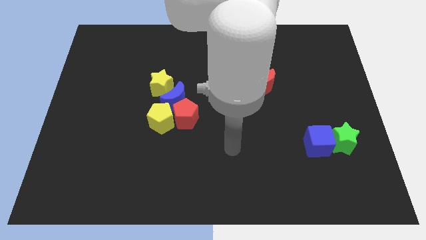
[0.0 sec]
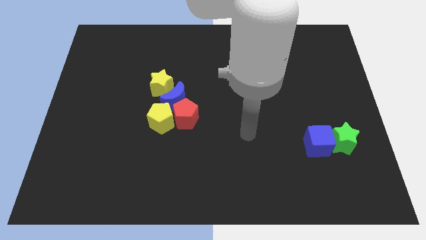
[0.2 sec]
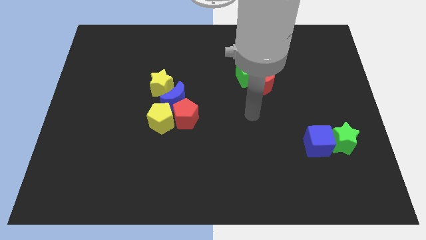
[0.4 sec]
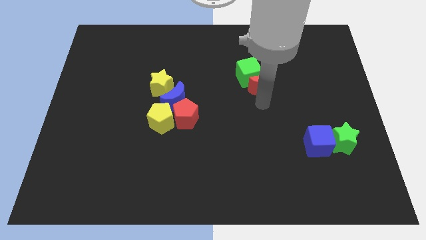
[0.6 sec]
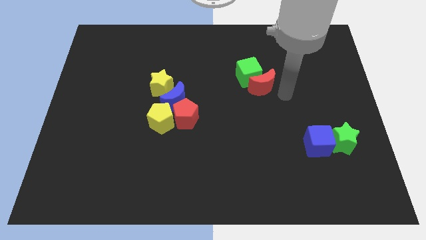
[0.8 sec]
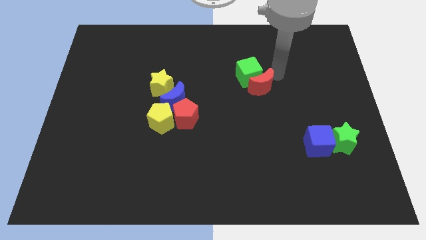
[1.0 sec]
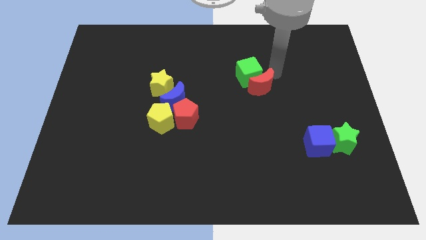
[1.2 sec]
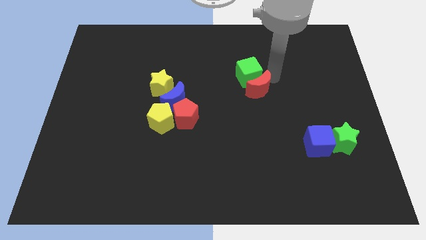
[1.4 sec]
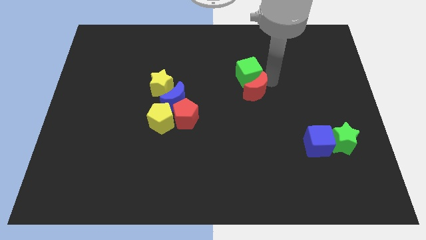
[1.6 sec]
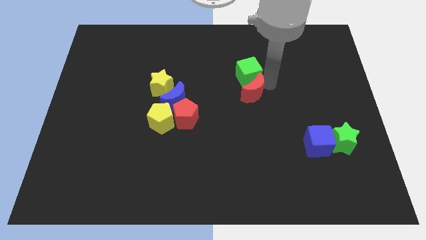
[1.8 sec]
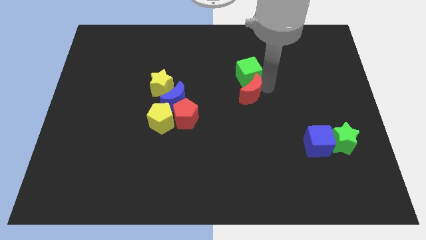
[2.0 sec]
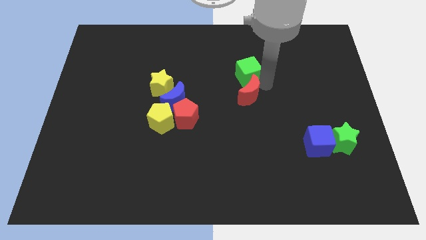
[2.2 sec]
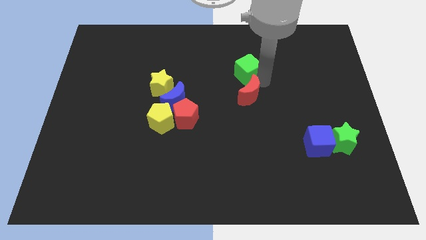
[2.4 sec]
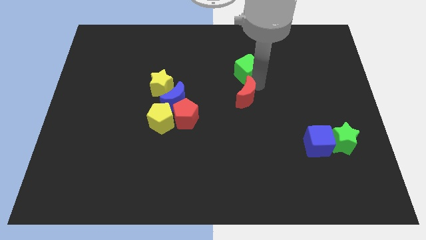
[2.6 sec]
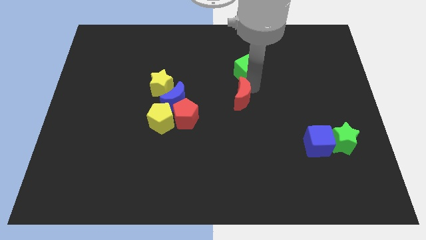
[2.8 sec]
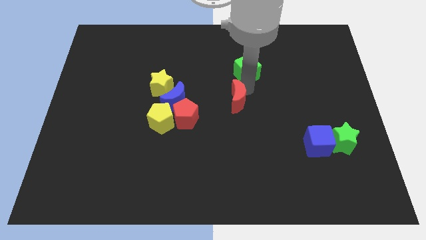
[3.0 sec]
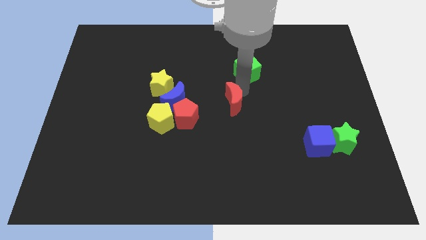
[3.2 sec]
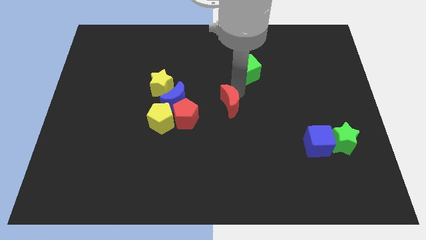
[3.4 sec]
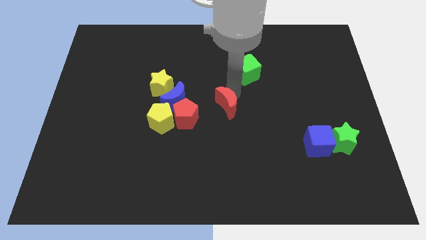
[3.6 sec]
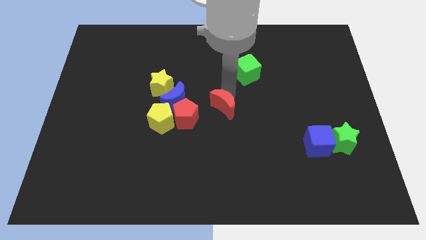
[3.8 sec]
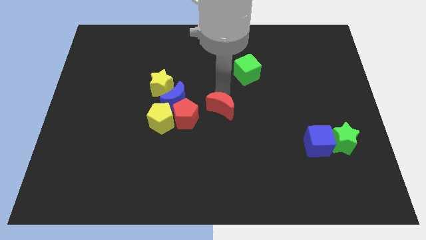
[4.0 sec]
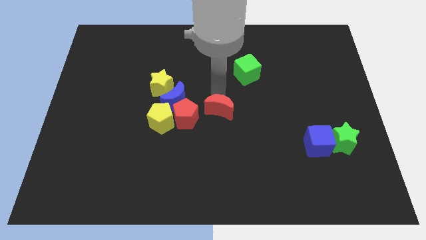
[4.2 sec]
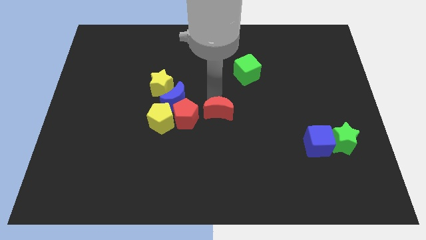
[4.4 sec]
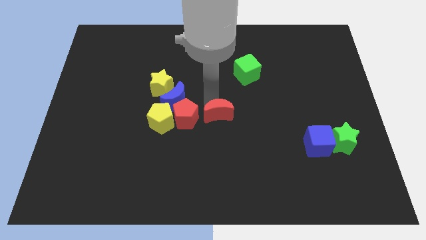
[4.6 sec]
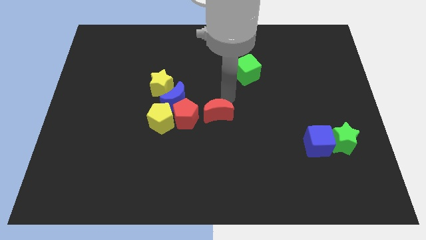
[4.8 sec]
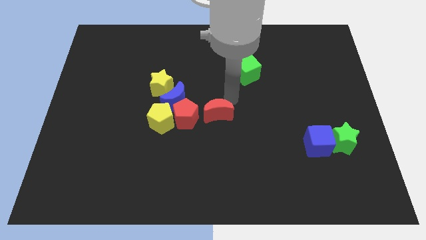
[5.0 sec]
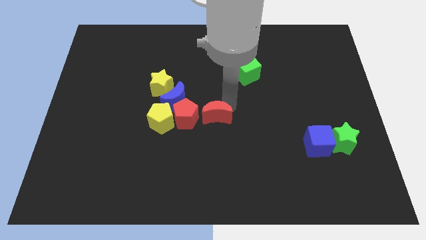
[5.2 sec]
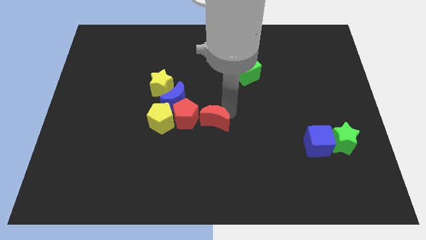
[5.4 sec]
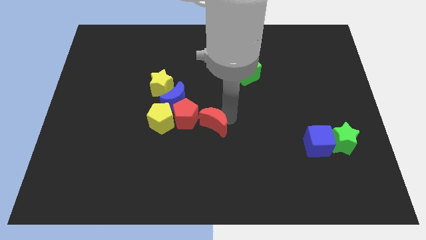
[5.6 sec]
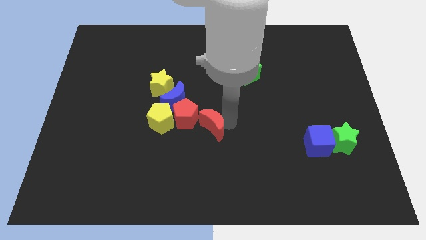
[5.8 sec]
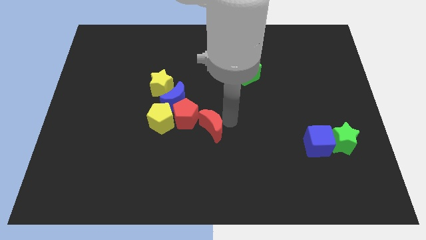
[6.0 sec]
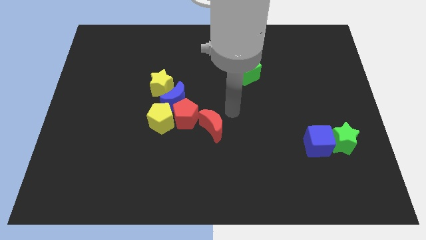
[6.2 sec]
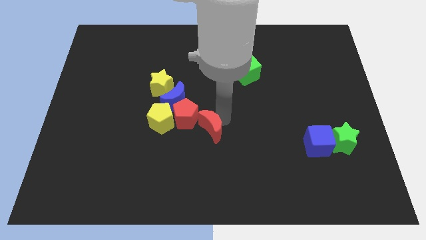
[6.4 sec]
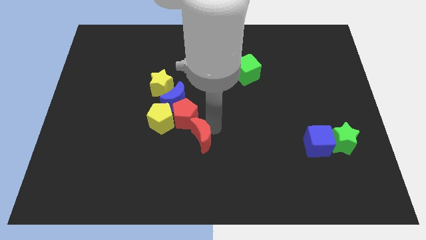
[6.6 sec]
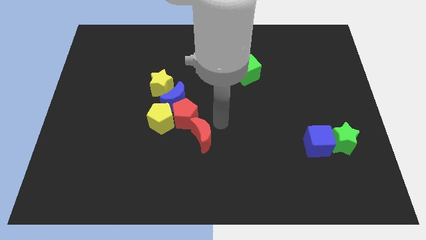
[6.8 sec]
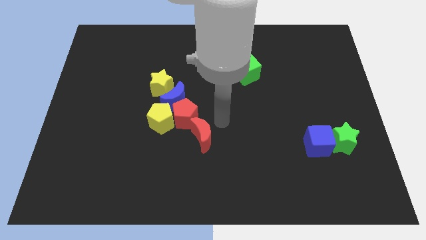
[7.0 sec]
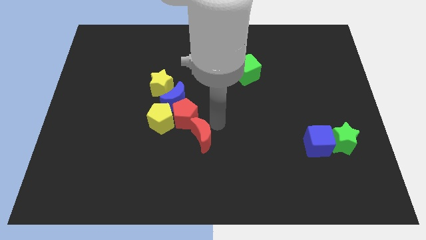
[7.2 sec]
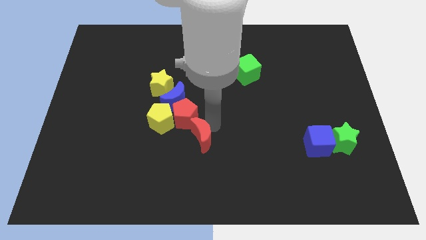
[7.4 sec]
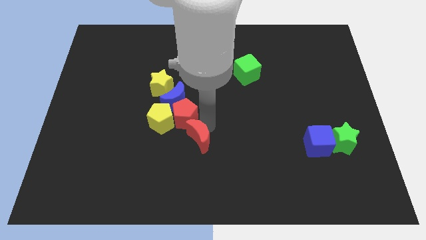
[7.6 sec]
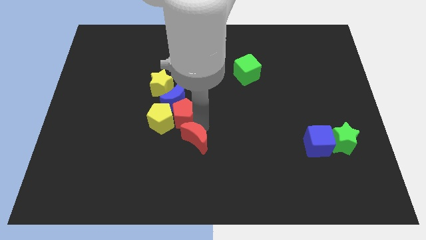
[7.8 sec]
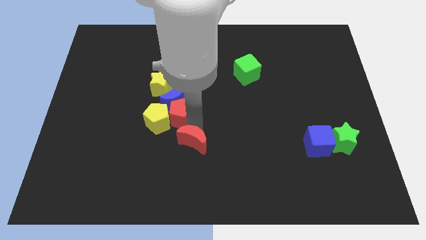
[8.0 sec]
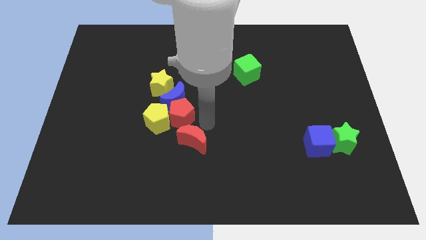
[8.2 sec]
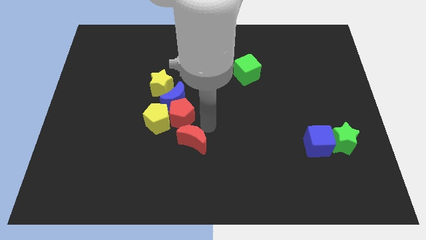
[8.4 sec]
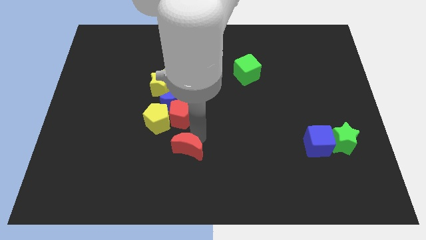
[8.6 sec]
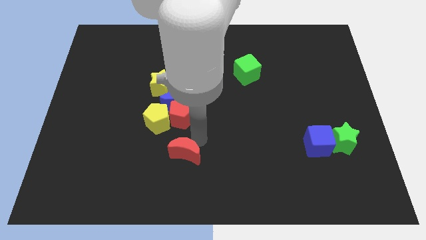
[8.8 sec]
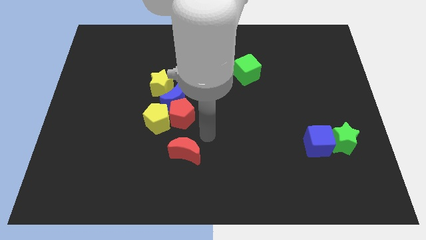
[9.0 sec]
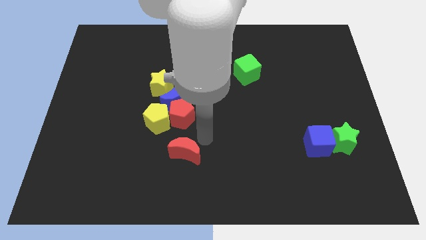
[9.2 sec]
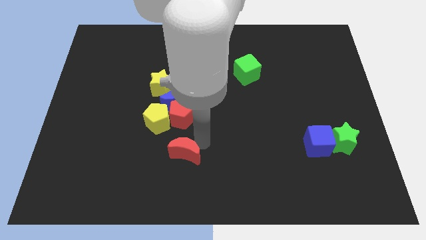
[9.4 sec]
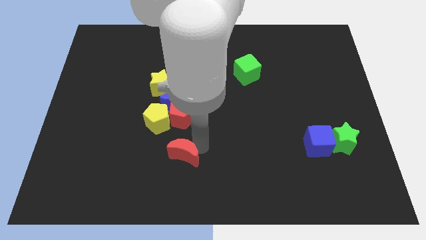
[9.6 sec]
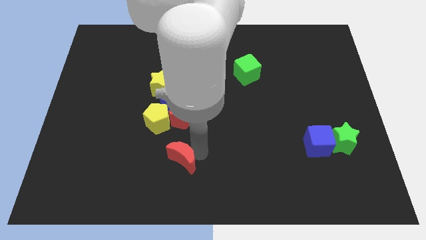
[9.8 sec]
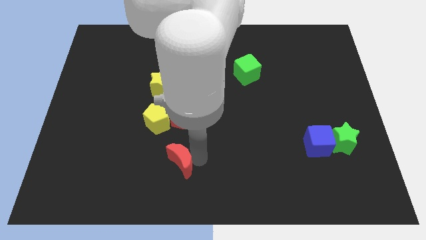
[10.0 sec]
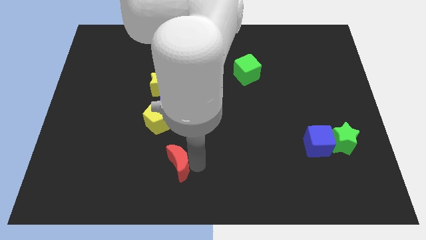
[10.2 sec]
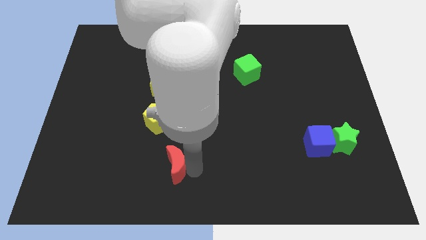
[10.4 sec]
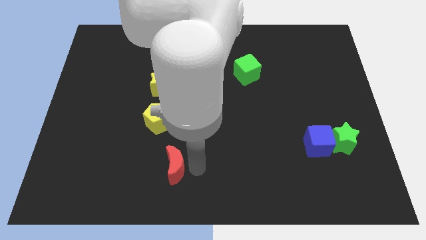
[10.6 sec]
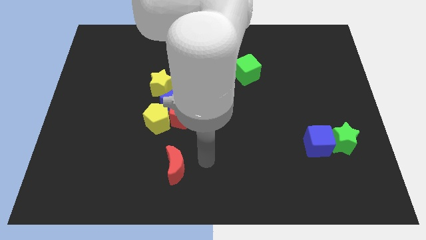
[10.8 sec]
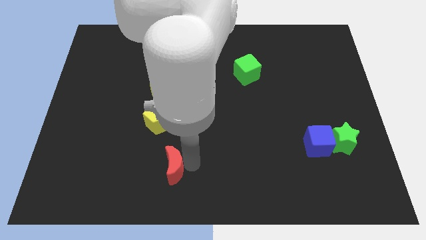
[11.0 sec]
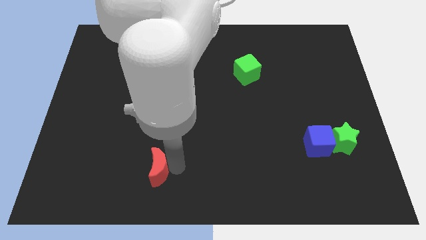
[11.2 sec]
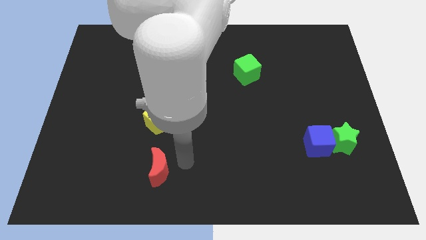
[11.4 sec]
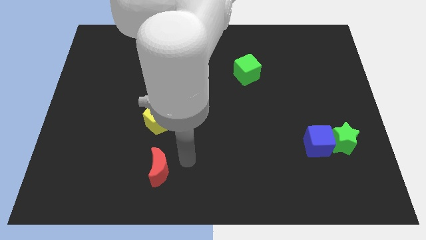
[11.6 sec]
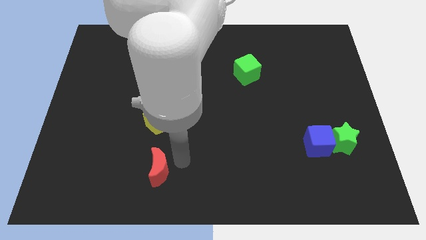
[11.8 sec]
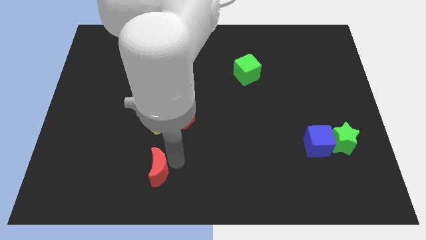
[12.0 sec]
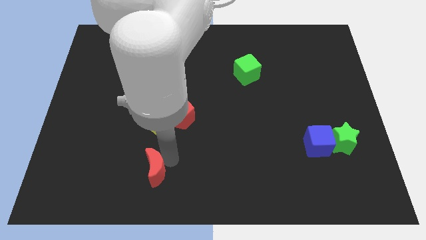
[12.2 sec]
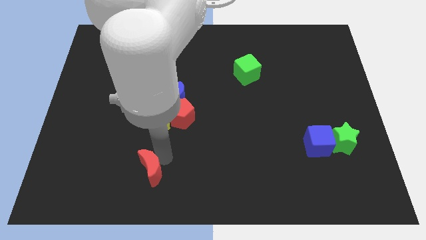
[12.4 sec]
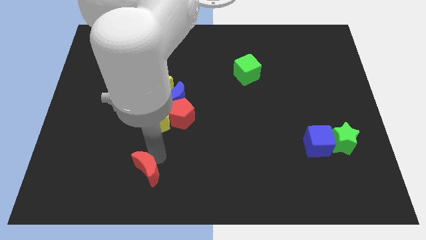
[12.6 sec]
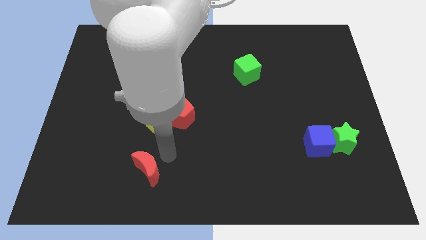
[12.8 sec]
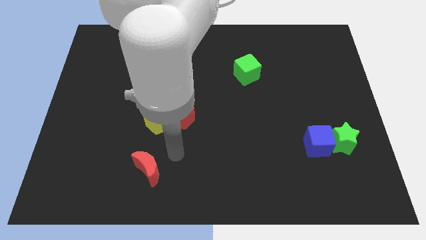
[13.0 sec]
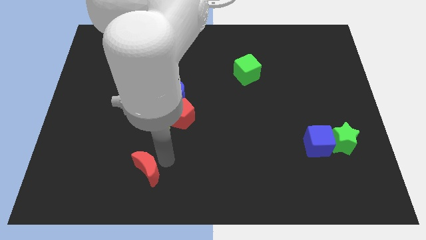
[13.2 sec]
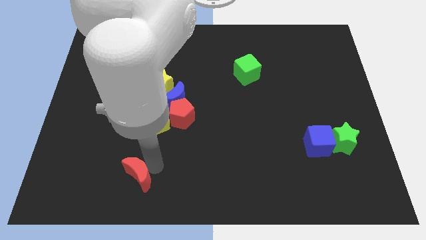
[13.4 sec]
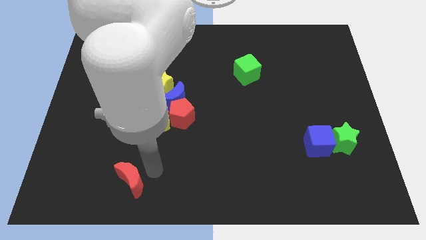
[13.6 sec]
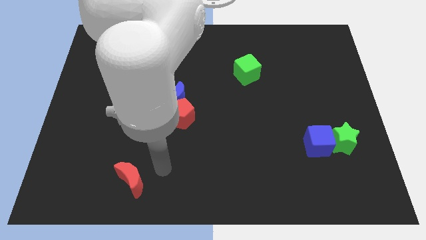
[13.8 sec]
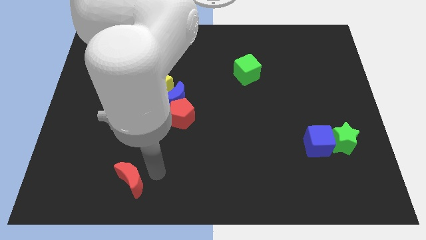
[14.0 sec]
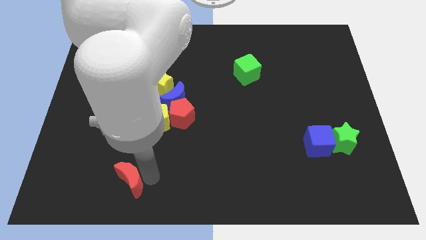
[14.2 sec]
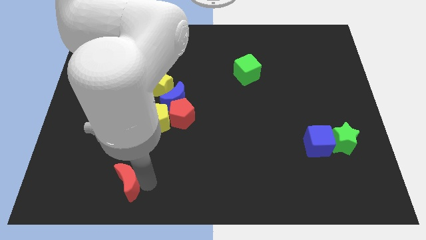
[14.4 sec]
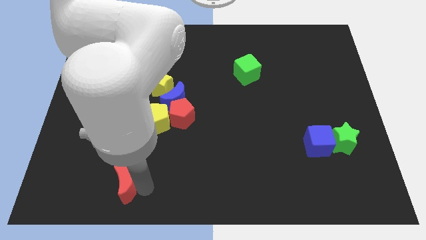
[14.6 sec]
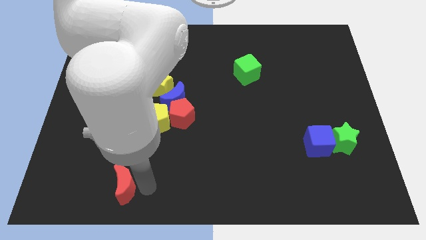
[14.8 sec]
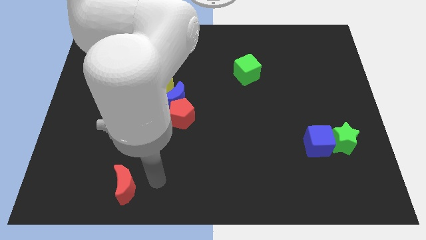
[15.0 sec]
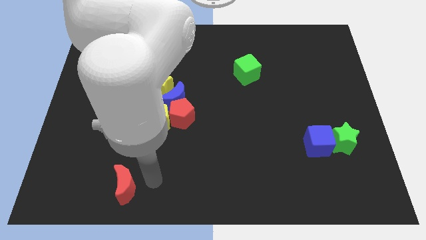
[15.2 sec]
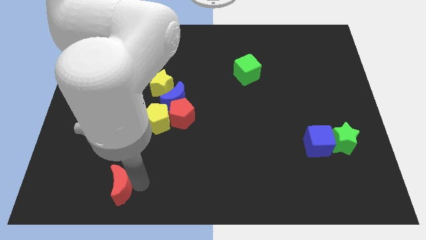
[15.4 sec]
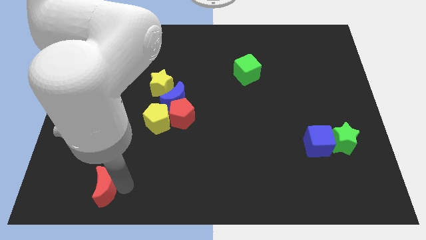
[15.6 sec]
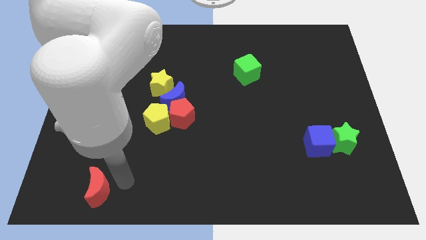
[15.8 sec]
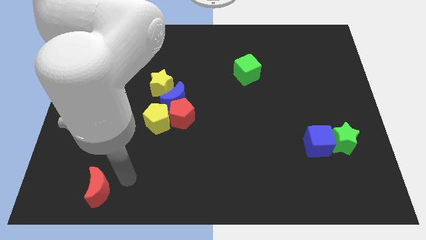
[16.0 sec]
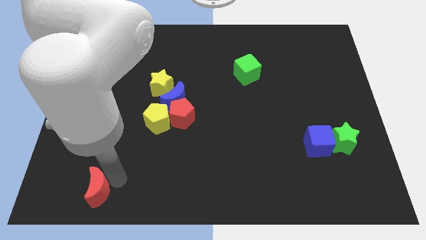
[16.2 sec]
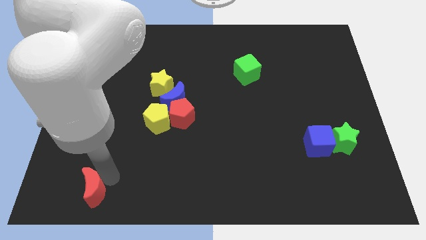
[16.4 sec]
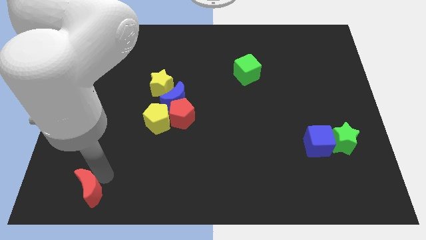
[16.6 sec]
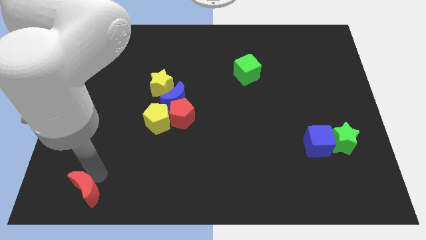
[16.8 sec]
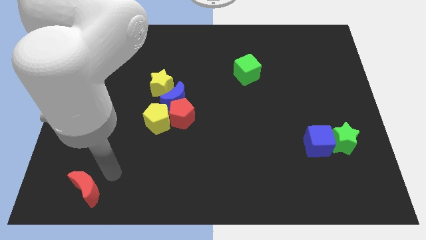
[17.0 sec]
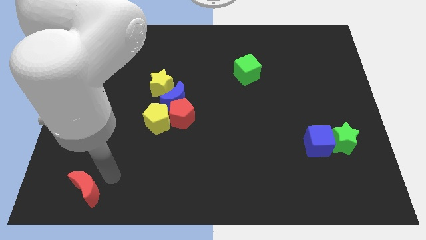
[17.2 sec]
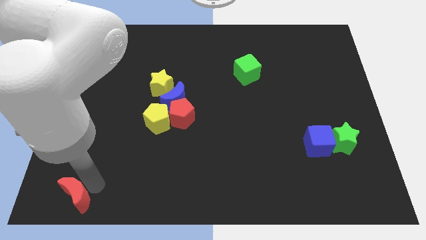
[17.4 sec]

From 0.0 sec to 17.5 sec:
push the red moon to the bottom left of the board
